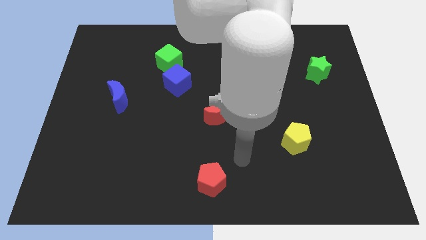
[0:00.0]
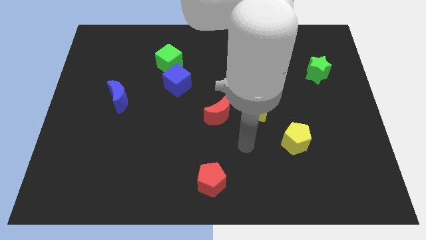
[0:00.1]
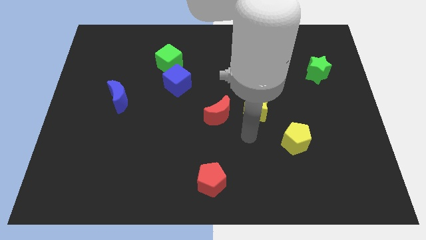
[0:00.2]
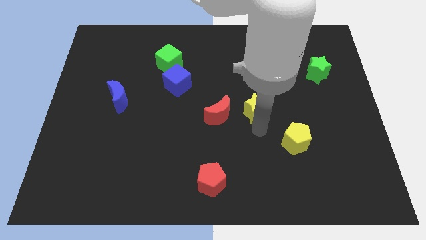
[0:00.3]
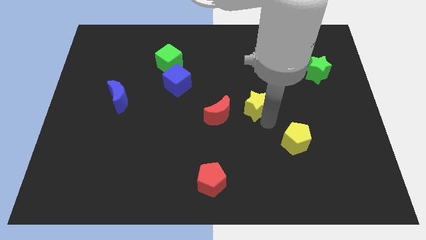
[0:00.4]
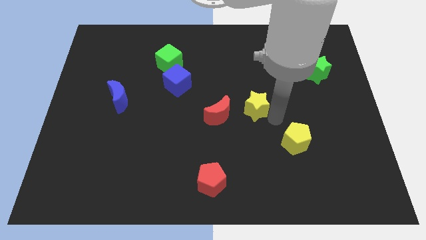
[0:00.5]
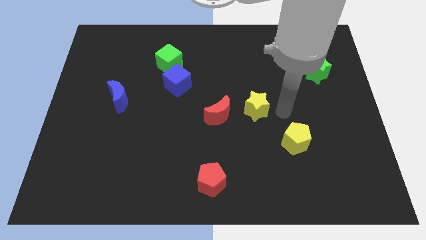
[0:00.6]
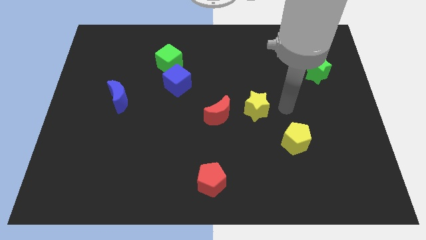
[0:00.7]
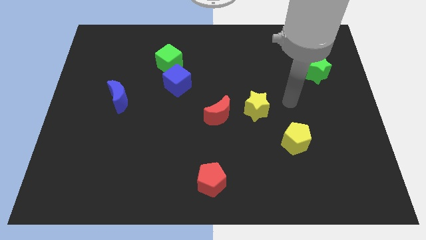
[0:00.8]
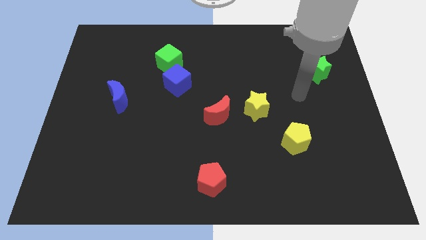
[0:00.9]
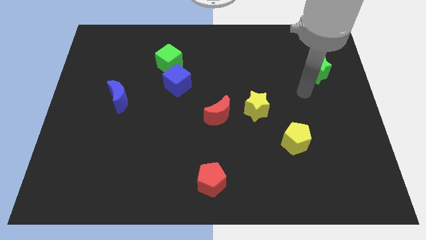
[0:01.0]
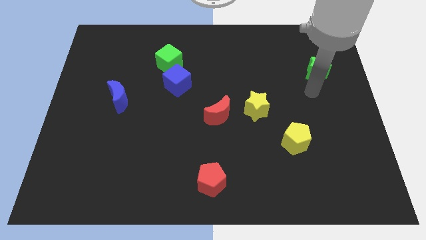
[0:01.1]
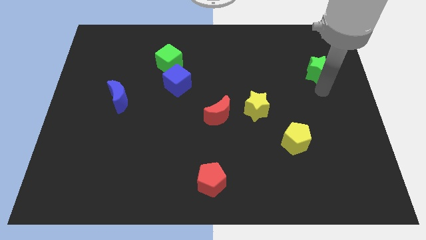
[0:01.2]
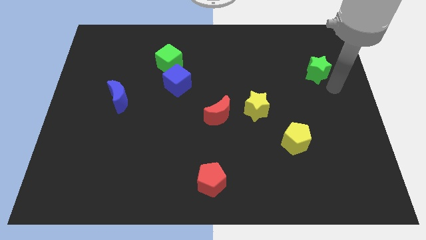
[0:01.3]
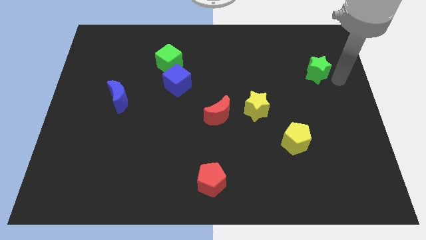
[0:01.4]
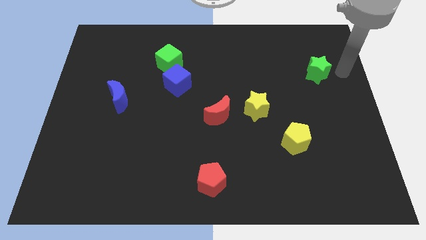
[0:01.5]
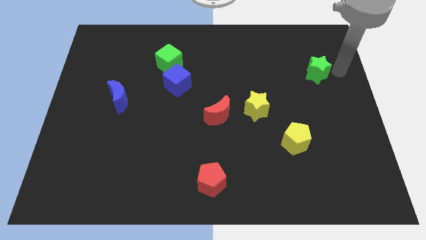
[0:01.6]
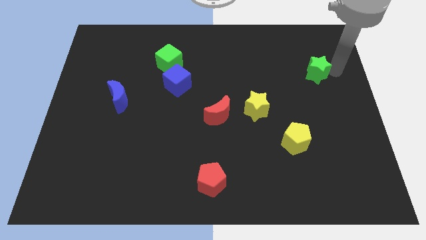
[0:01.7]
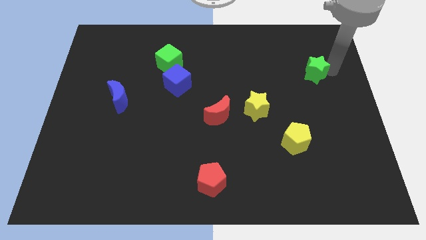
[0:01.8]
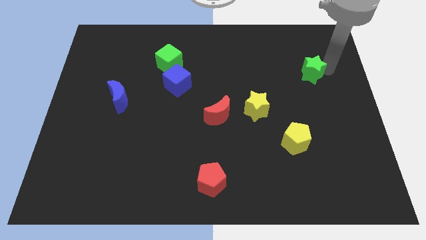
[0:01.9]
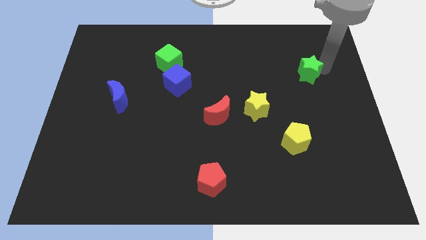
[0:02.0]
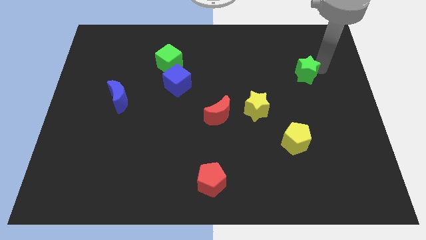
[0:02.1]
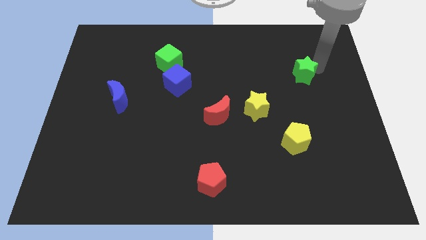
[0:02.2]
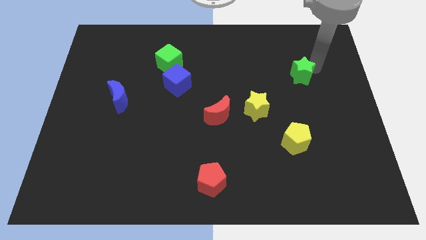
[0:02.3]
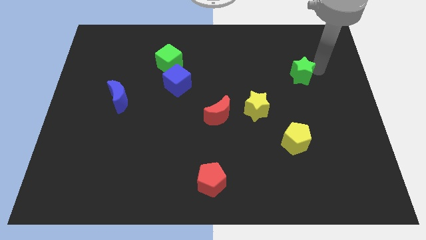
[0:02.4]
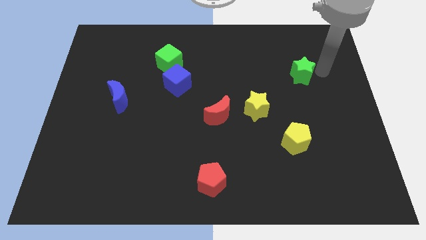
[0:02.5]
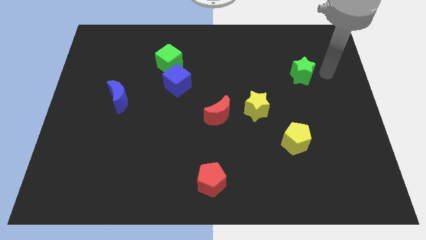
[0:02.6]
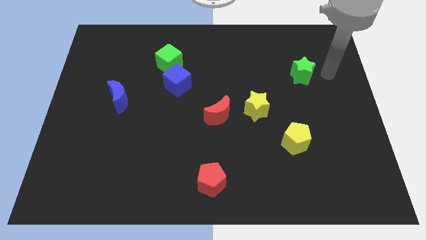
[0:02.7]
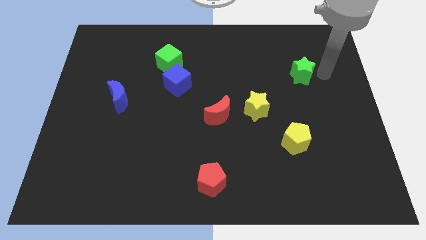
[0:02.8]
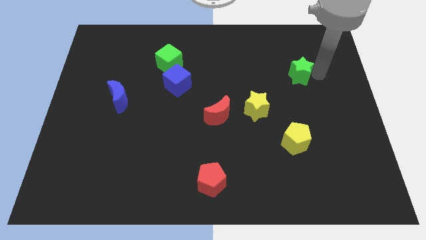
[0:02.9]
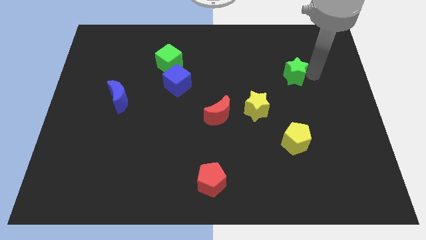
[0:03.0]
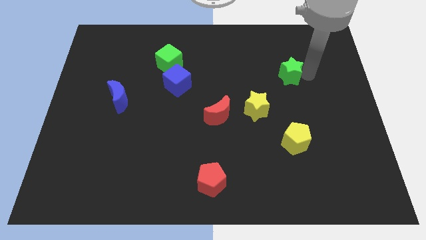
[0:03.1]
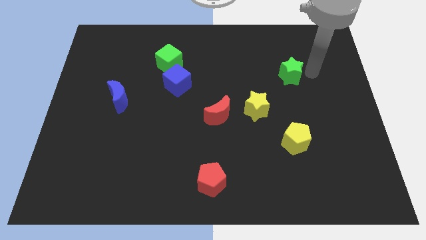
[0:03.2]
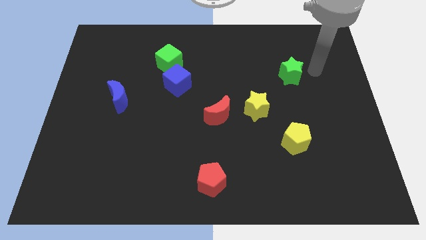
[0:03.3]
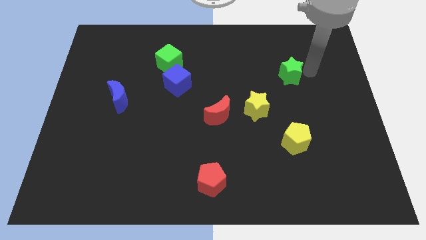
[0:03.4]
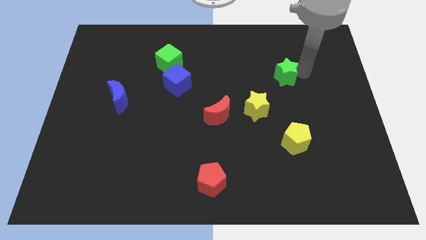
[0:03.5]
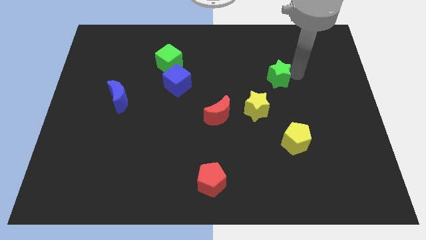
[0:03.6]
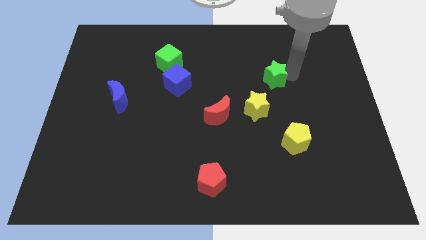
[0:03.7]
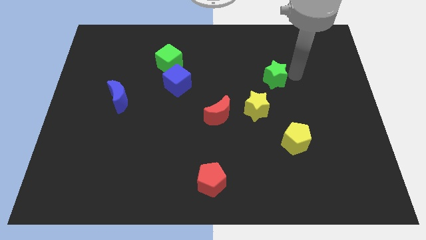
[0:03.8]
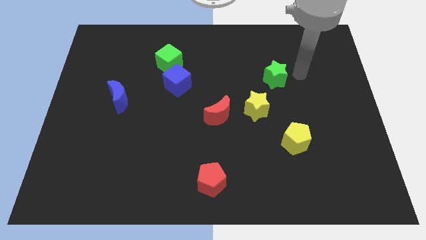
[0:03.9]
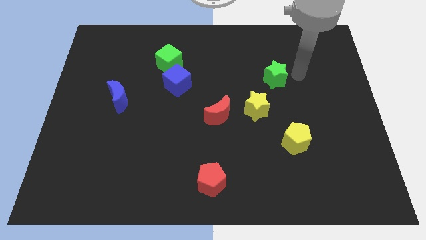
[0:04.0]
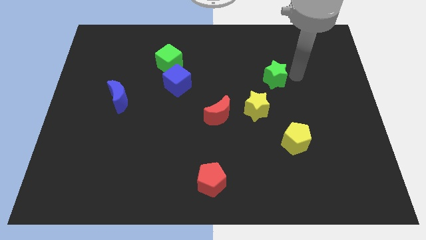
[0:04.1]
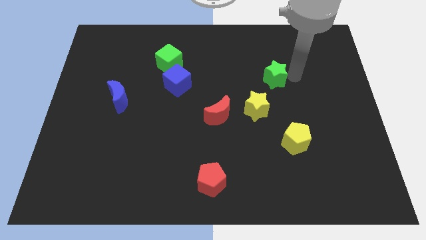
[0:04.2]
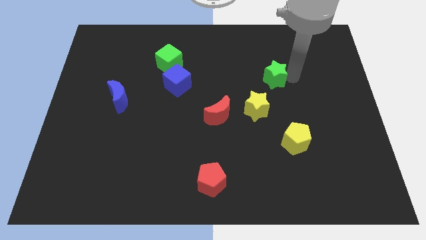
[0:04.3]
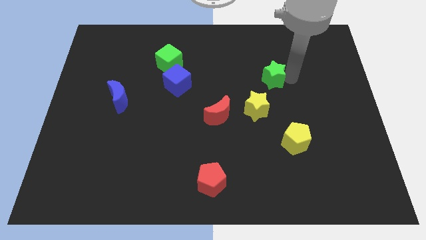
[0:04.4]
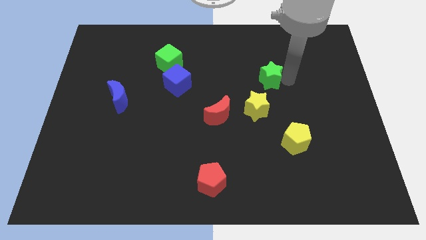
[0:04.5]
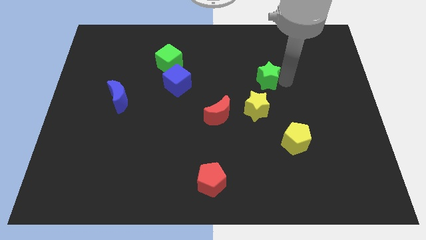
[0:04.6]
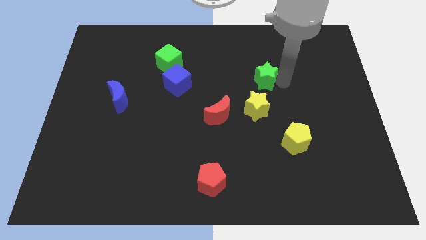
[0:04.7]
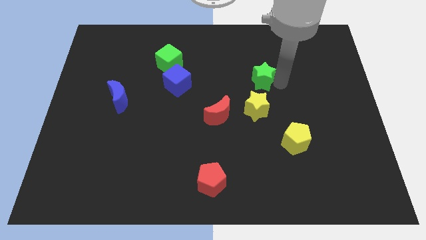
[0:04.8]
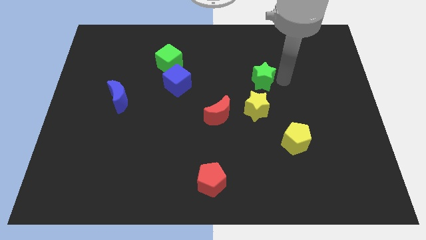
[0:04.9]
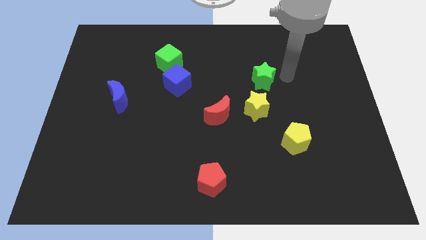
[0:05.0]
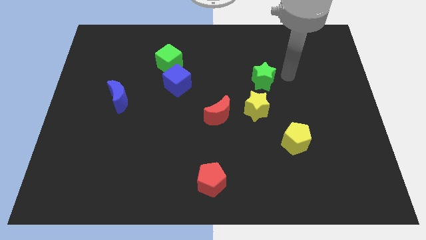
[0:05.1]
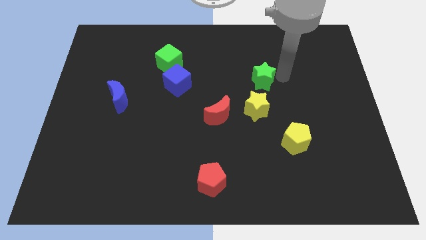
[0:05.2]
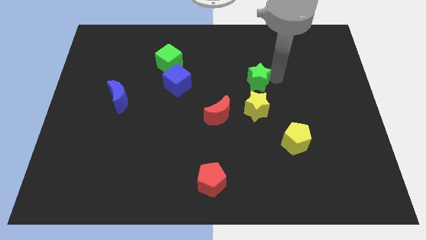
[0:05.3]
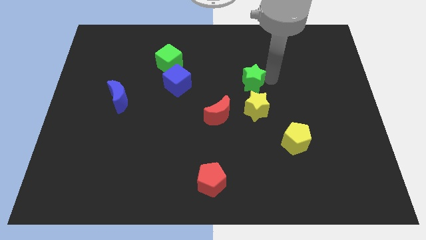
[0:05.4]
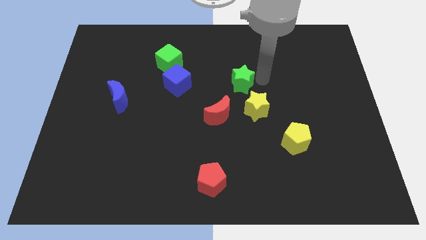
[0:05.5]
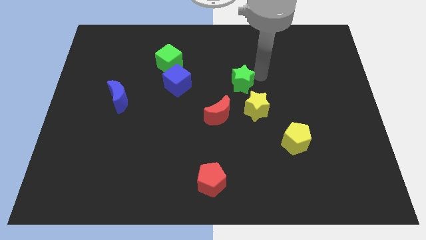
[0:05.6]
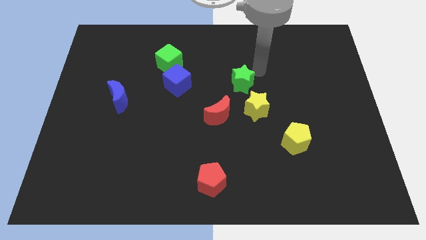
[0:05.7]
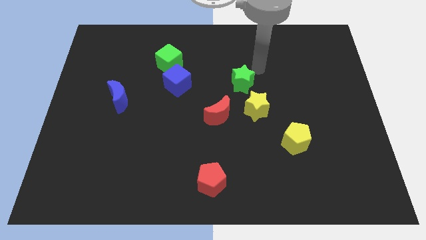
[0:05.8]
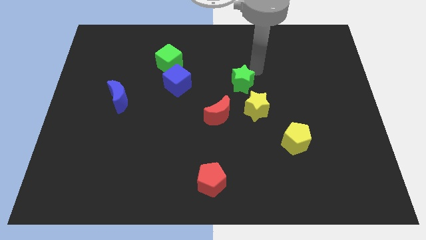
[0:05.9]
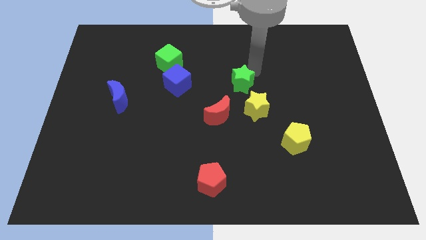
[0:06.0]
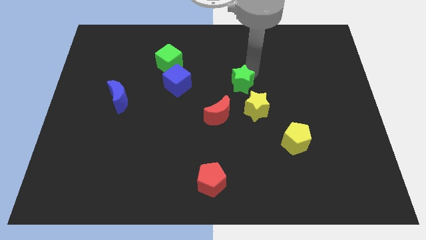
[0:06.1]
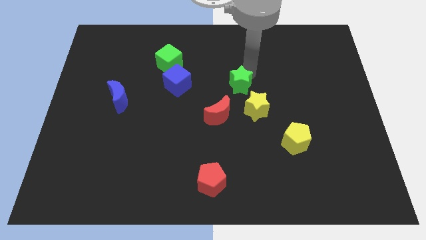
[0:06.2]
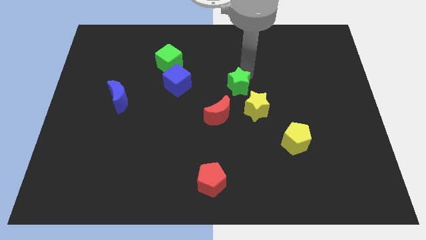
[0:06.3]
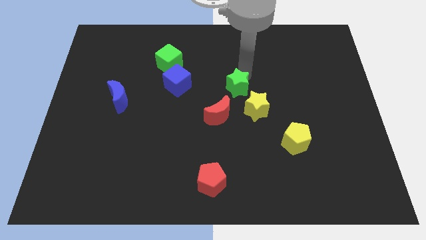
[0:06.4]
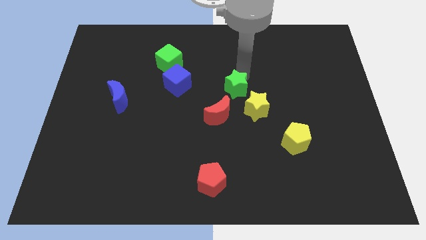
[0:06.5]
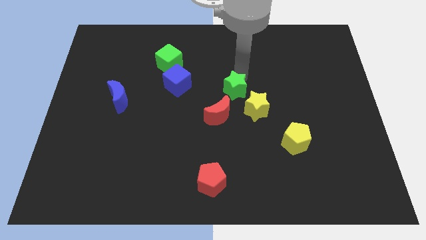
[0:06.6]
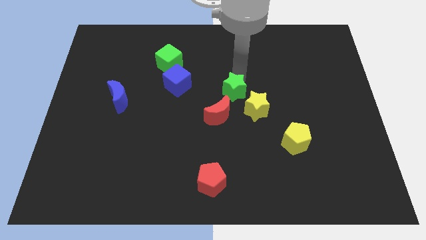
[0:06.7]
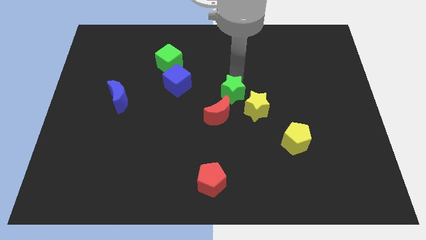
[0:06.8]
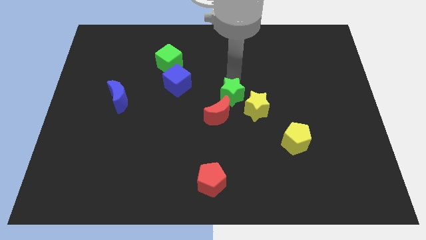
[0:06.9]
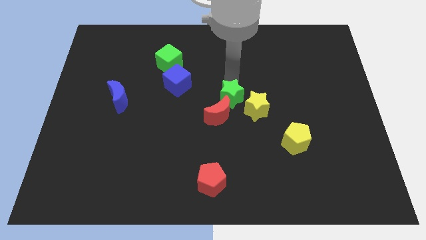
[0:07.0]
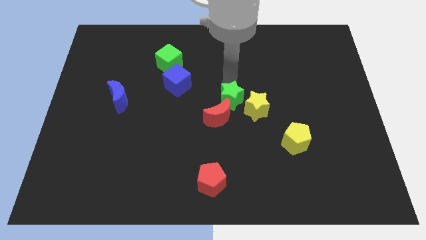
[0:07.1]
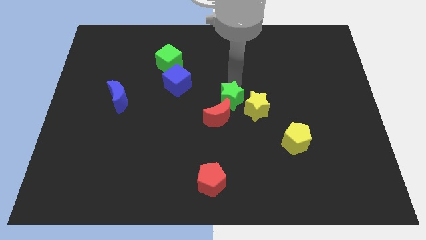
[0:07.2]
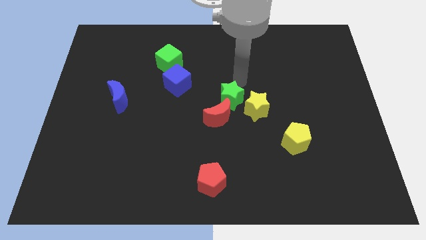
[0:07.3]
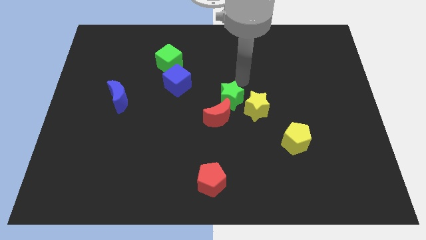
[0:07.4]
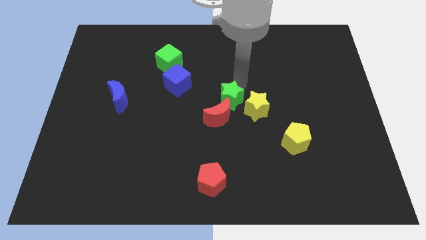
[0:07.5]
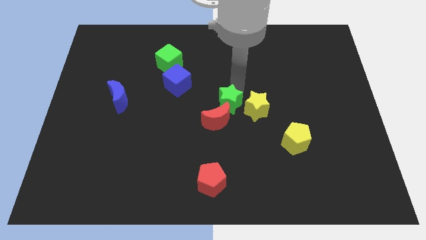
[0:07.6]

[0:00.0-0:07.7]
slide the green star next to the red moon

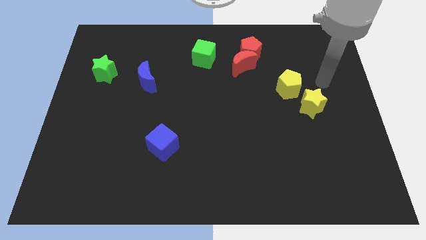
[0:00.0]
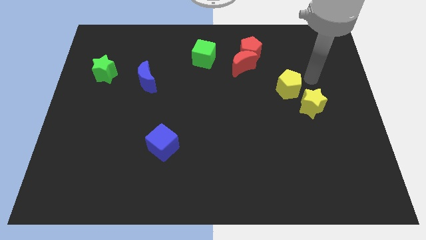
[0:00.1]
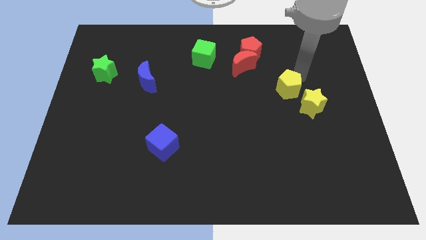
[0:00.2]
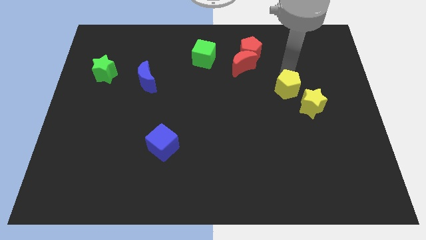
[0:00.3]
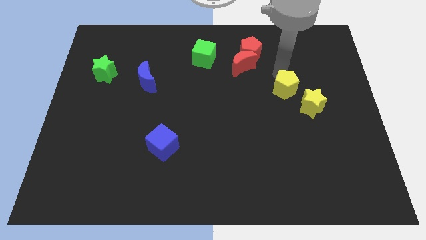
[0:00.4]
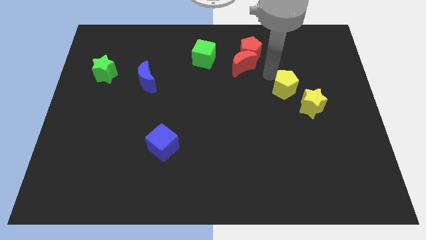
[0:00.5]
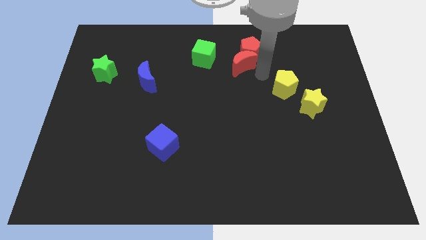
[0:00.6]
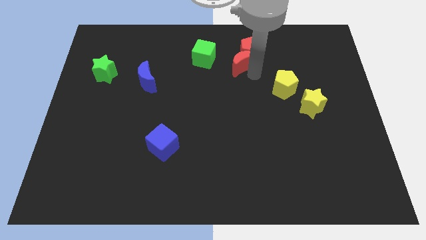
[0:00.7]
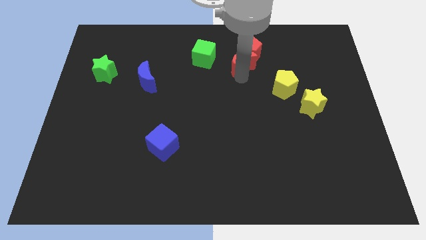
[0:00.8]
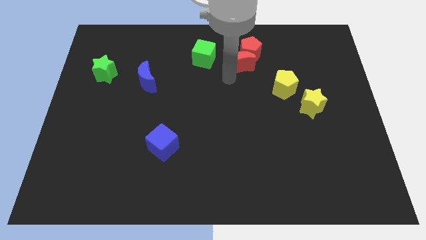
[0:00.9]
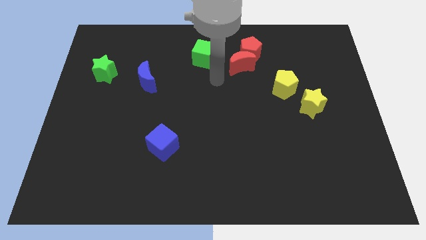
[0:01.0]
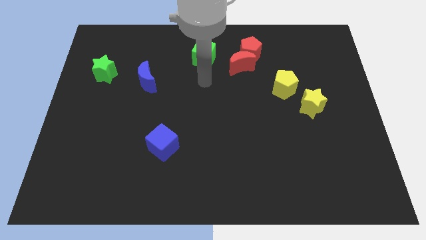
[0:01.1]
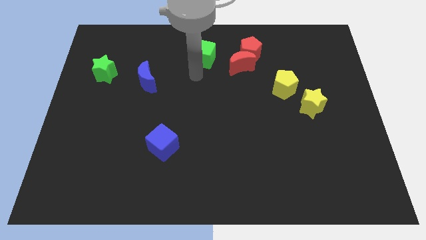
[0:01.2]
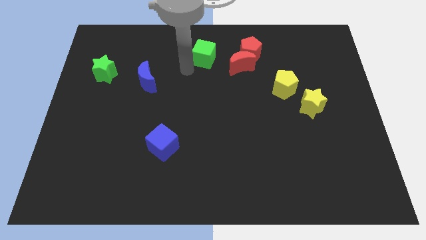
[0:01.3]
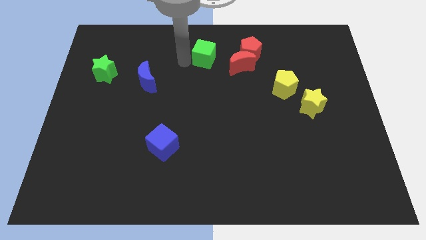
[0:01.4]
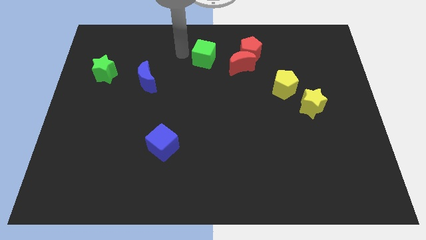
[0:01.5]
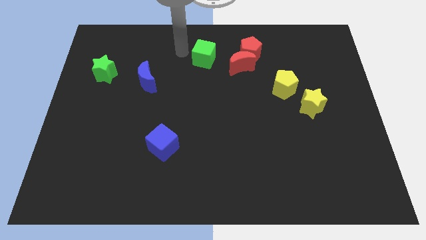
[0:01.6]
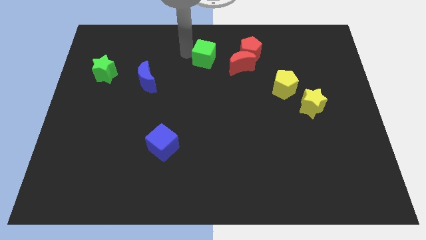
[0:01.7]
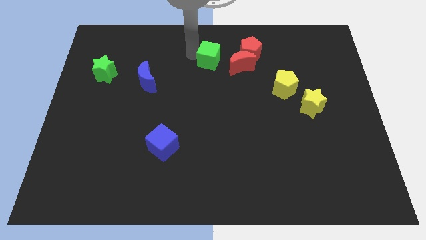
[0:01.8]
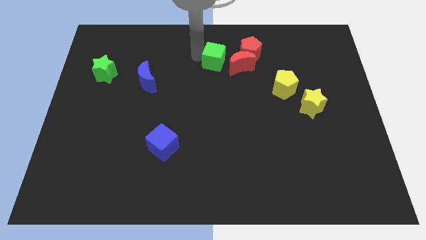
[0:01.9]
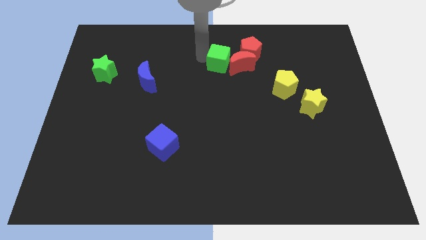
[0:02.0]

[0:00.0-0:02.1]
move the green cube to the red moon
